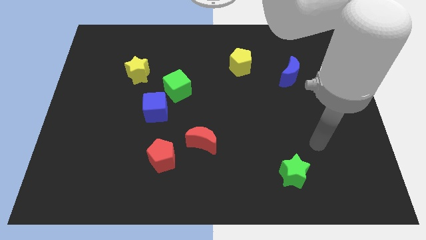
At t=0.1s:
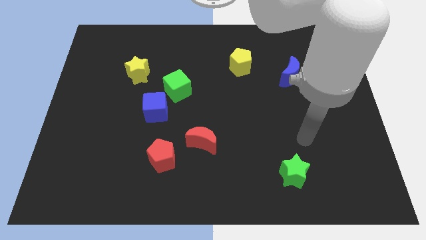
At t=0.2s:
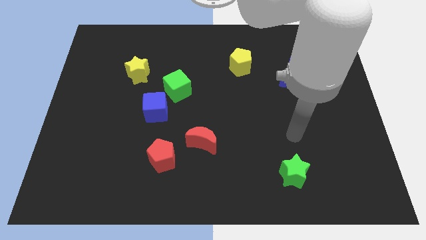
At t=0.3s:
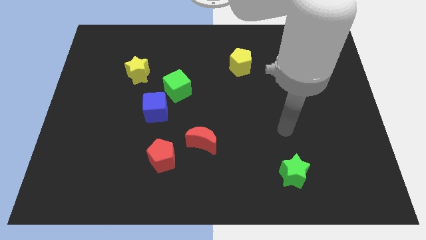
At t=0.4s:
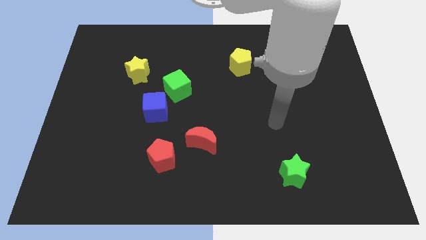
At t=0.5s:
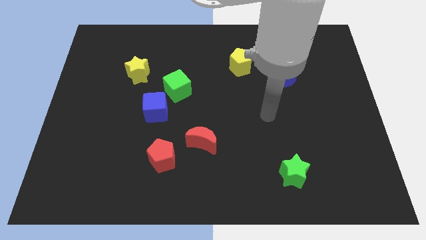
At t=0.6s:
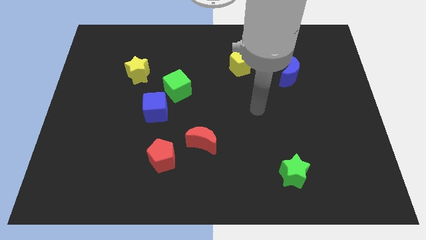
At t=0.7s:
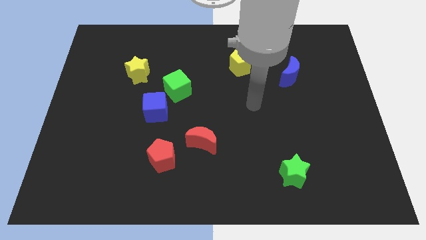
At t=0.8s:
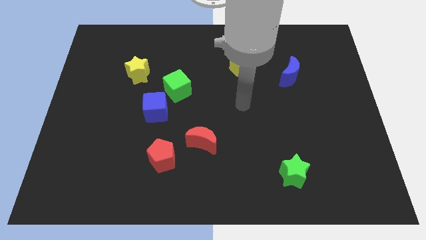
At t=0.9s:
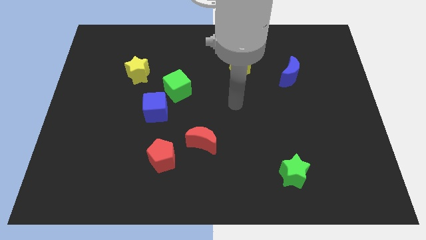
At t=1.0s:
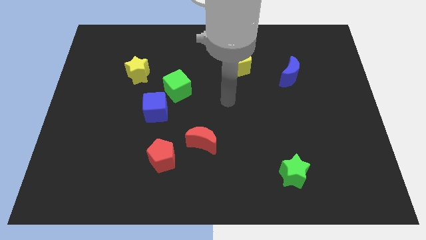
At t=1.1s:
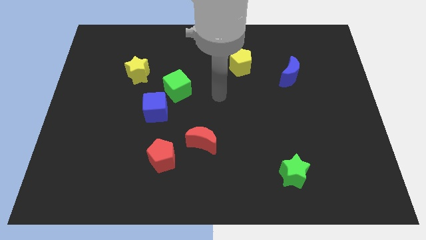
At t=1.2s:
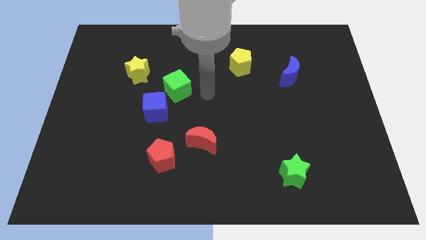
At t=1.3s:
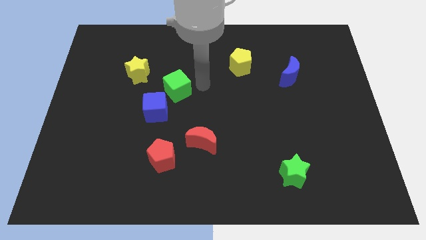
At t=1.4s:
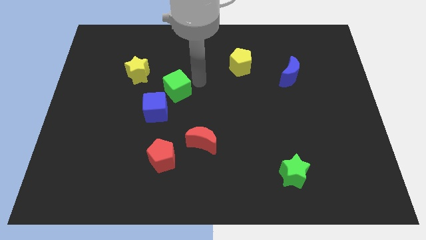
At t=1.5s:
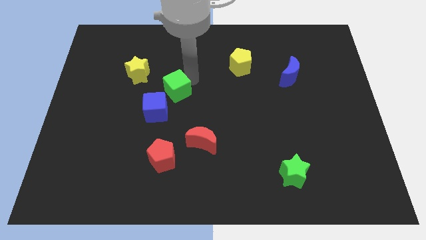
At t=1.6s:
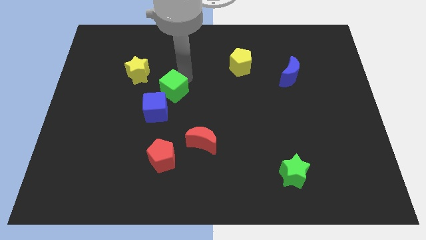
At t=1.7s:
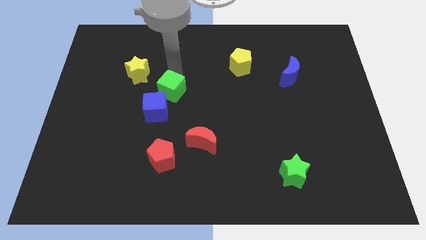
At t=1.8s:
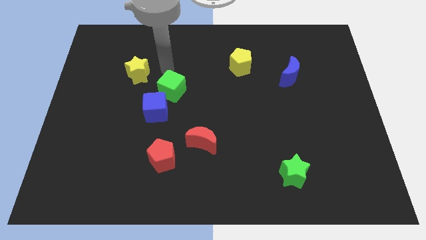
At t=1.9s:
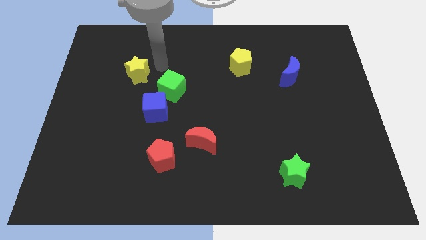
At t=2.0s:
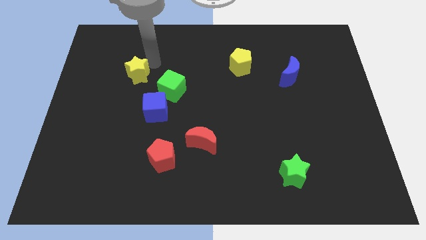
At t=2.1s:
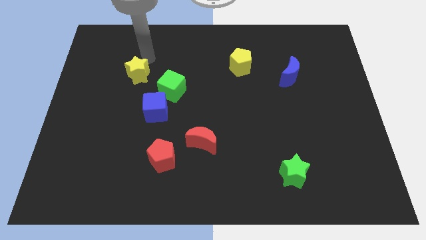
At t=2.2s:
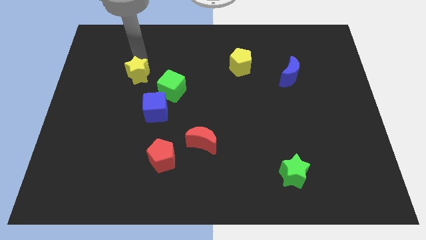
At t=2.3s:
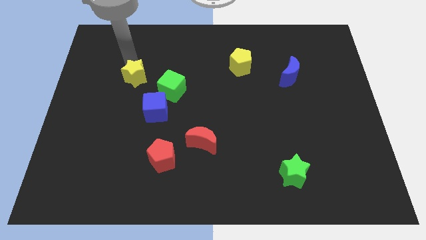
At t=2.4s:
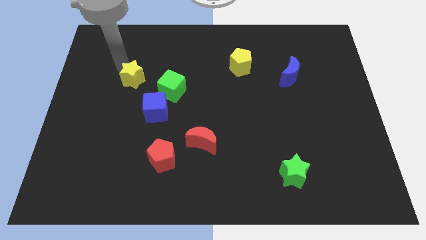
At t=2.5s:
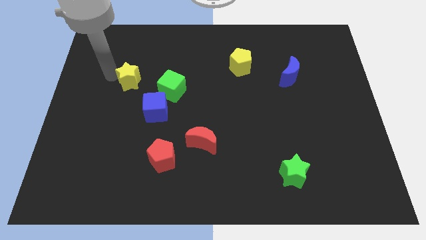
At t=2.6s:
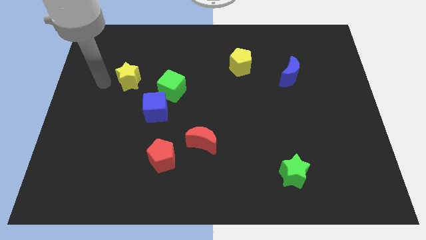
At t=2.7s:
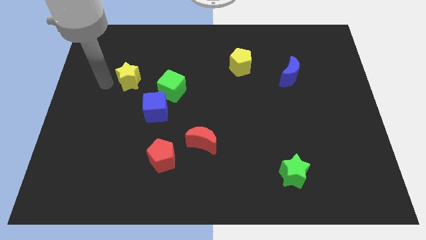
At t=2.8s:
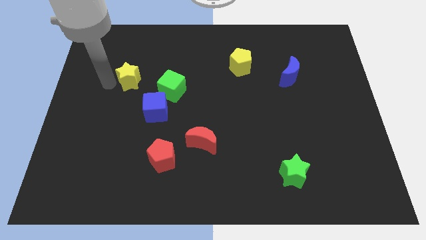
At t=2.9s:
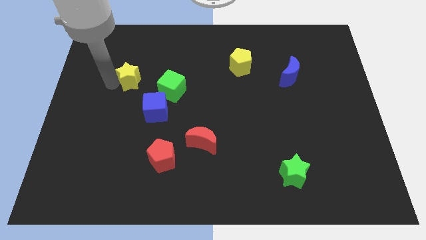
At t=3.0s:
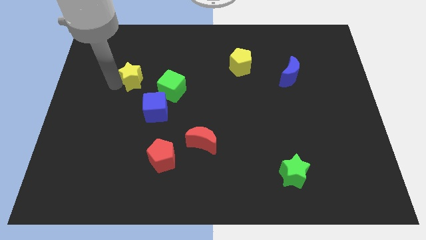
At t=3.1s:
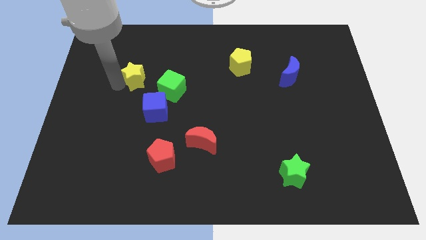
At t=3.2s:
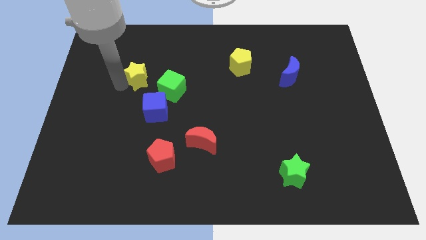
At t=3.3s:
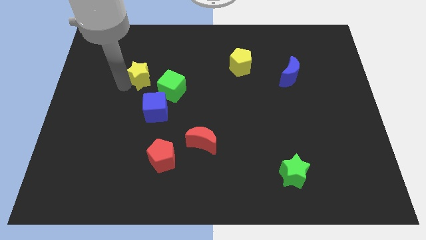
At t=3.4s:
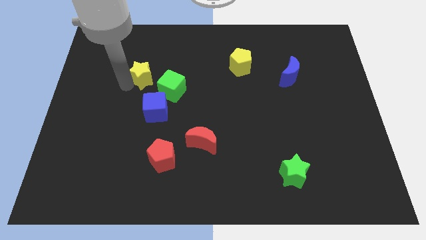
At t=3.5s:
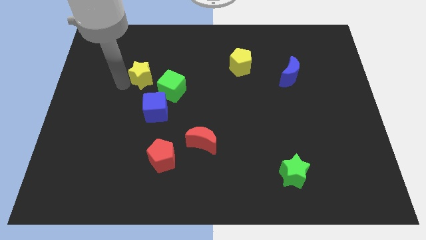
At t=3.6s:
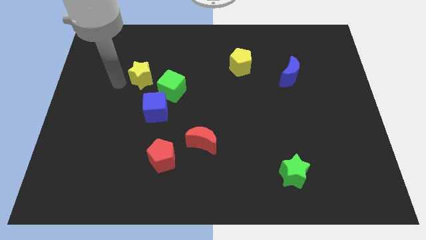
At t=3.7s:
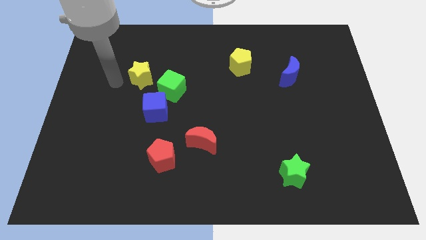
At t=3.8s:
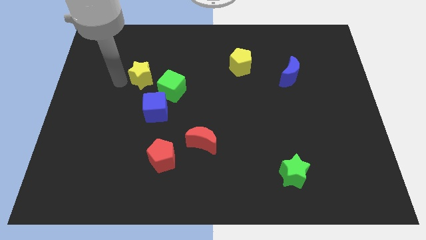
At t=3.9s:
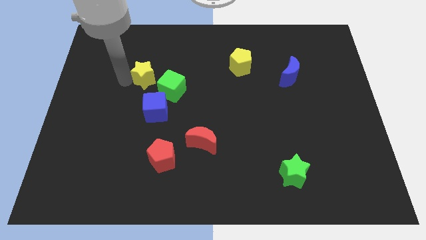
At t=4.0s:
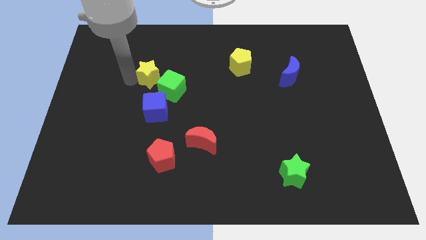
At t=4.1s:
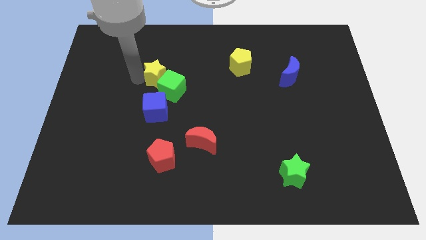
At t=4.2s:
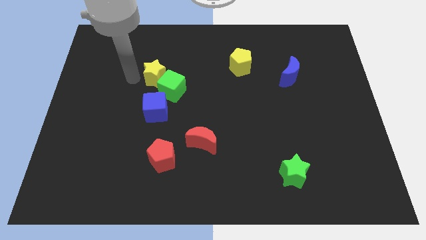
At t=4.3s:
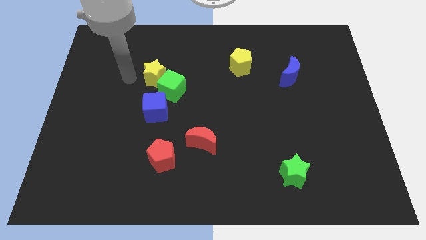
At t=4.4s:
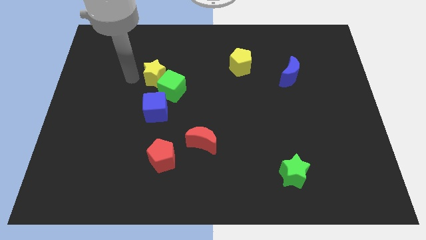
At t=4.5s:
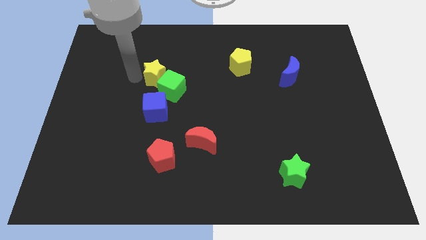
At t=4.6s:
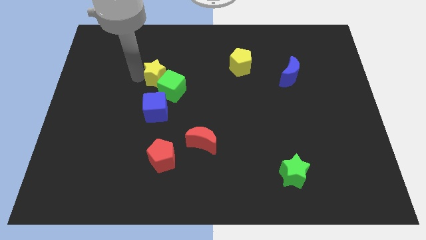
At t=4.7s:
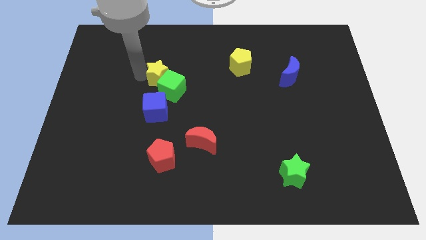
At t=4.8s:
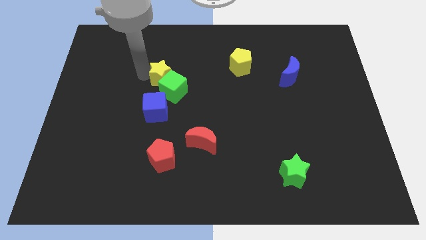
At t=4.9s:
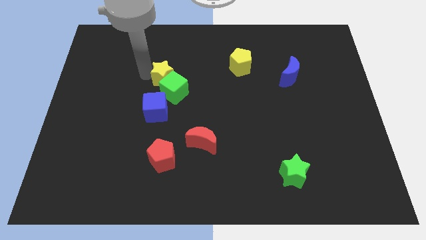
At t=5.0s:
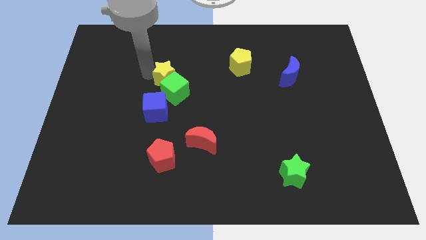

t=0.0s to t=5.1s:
slide the yellow star right a little bit

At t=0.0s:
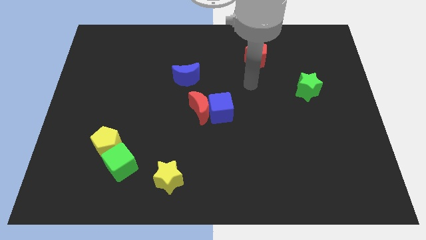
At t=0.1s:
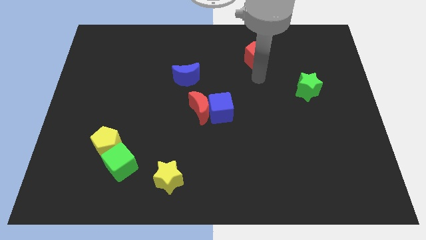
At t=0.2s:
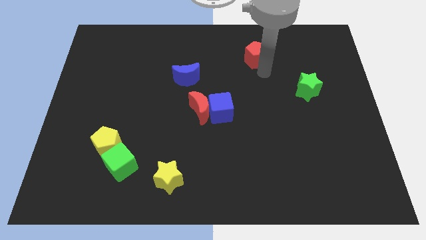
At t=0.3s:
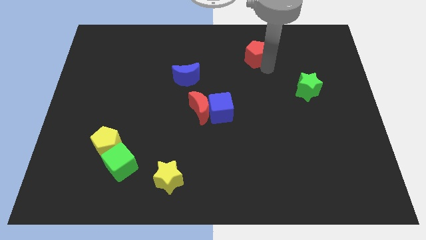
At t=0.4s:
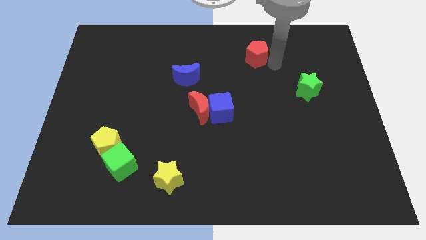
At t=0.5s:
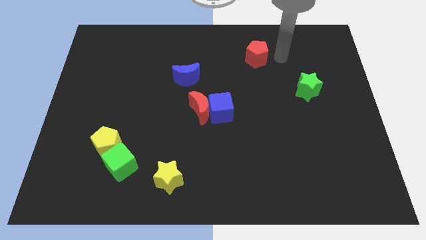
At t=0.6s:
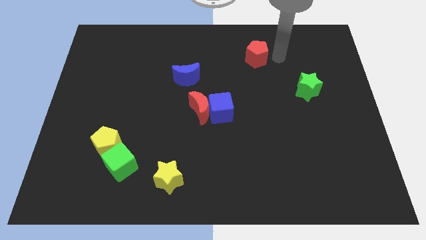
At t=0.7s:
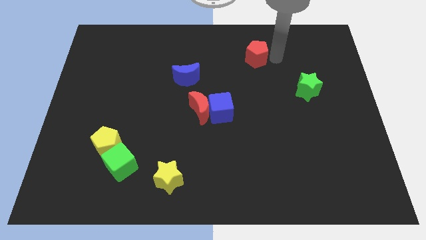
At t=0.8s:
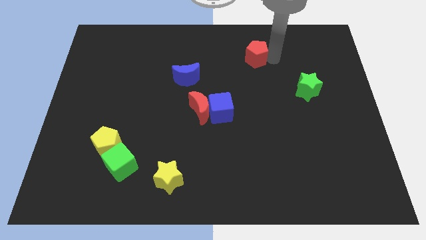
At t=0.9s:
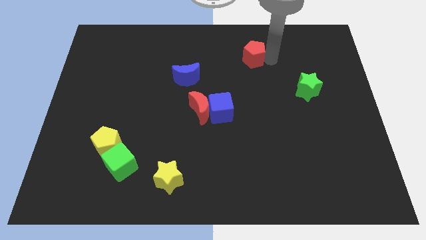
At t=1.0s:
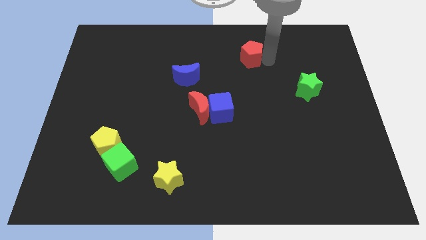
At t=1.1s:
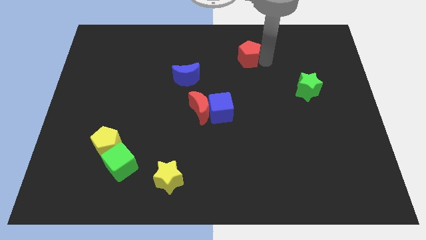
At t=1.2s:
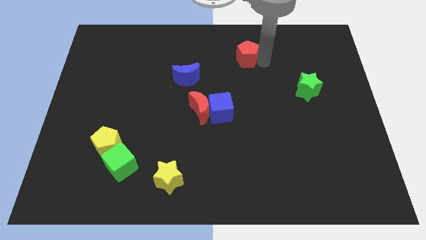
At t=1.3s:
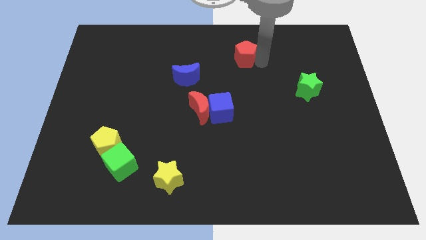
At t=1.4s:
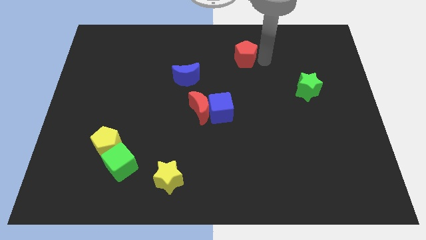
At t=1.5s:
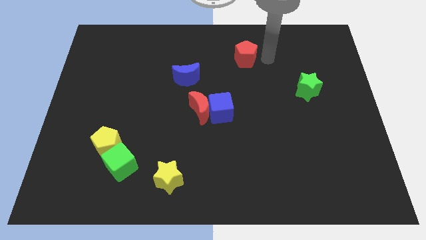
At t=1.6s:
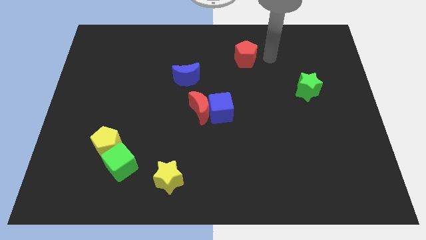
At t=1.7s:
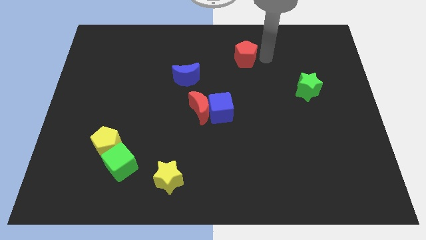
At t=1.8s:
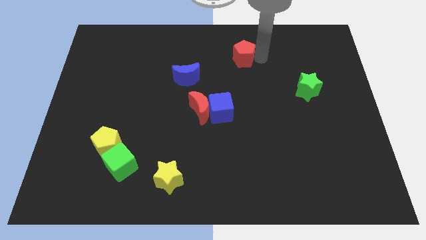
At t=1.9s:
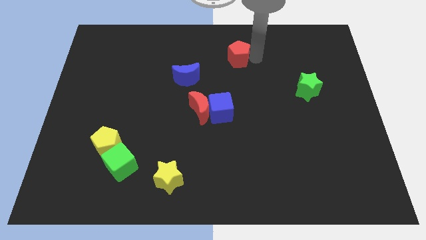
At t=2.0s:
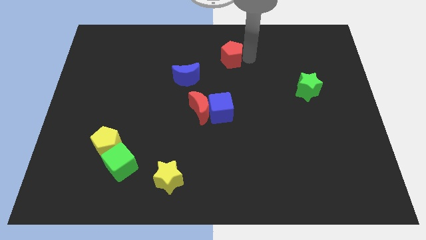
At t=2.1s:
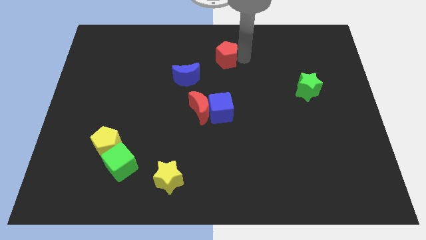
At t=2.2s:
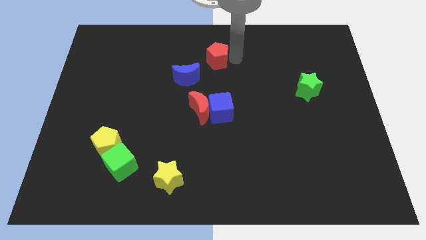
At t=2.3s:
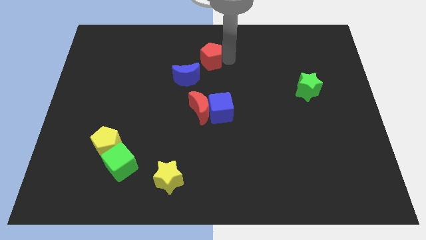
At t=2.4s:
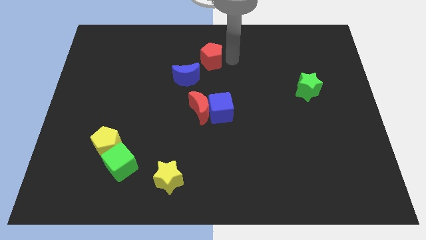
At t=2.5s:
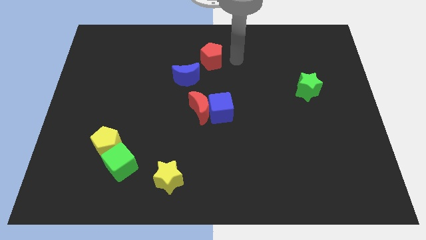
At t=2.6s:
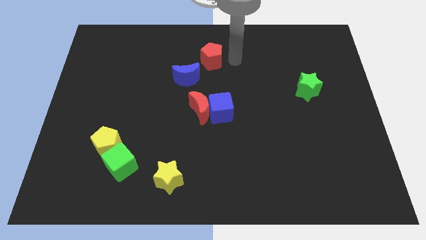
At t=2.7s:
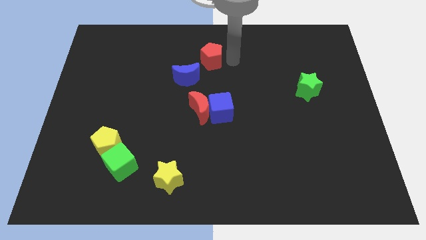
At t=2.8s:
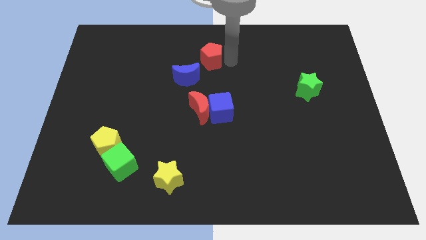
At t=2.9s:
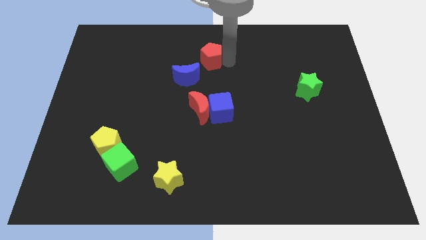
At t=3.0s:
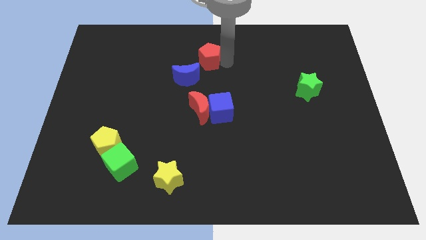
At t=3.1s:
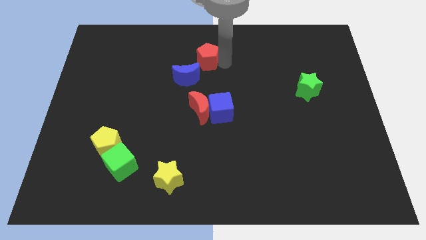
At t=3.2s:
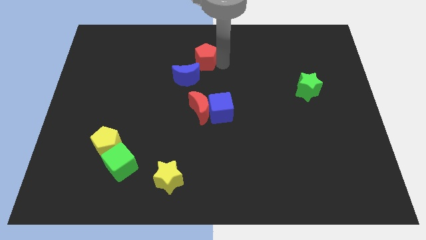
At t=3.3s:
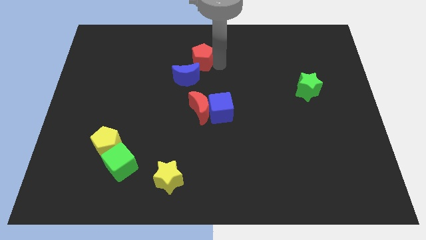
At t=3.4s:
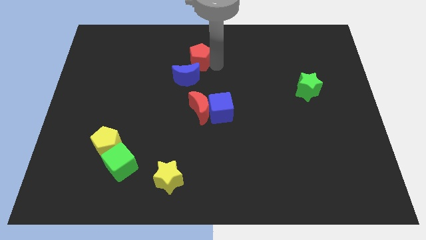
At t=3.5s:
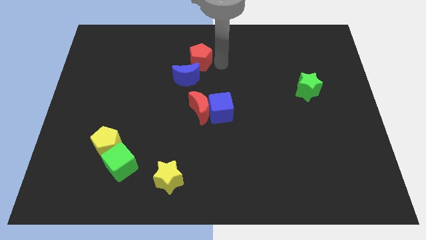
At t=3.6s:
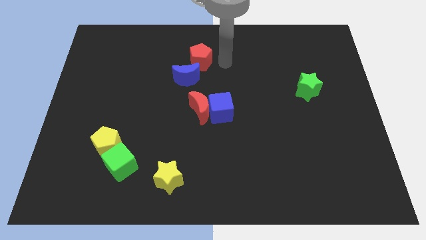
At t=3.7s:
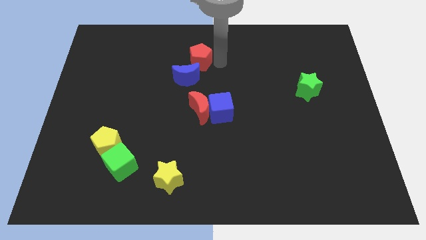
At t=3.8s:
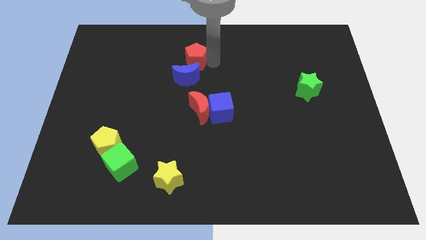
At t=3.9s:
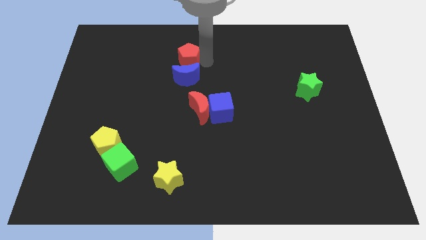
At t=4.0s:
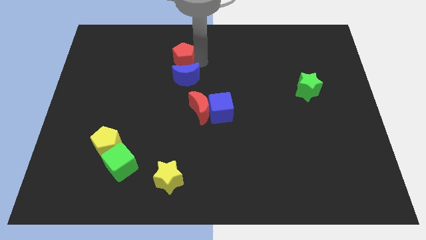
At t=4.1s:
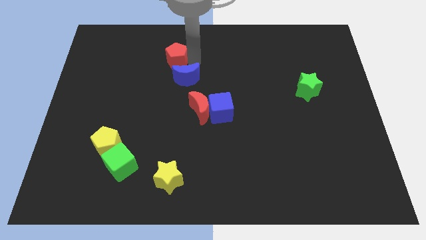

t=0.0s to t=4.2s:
slide the red pentagon left
